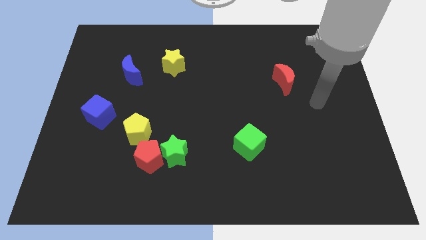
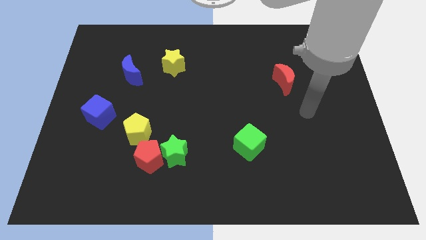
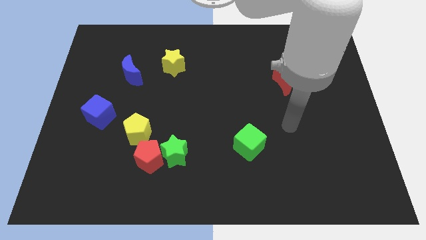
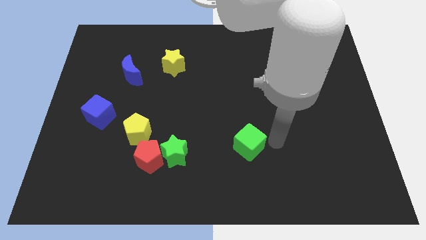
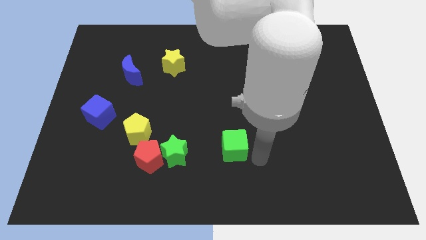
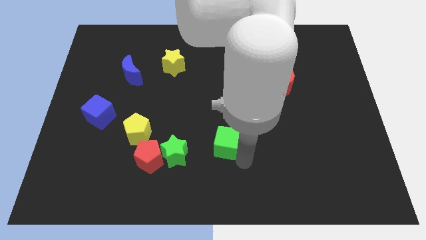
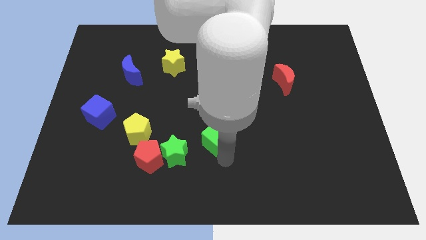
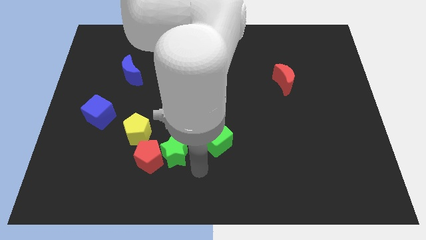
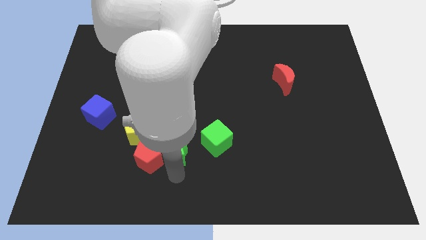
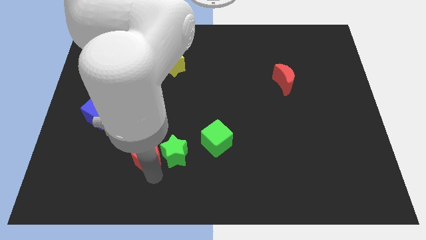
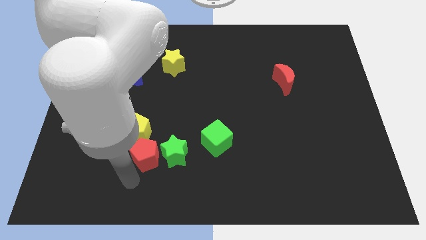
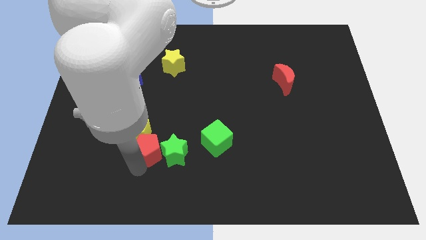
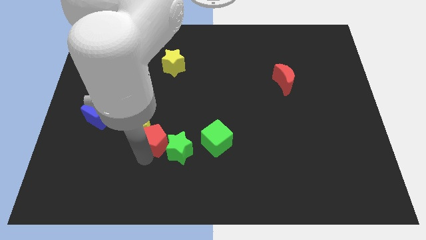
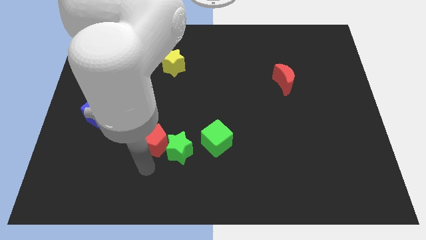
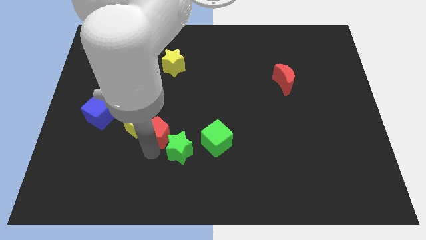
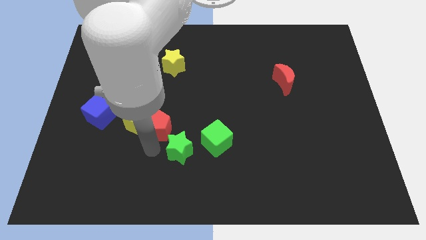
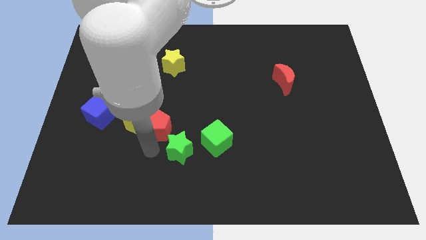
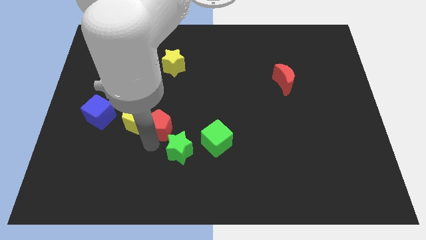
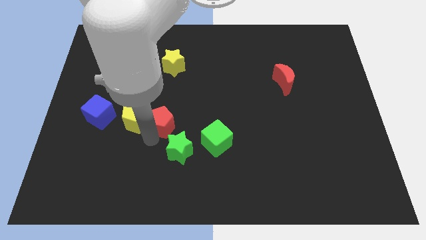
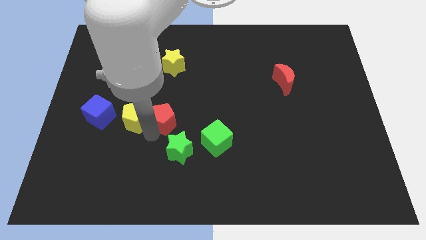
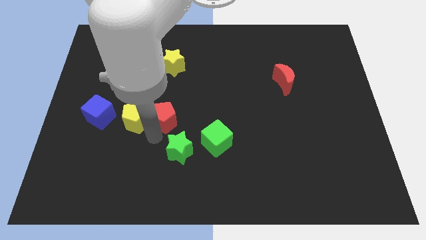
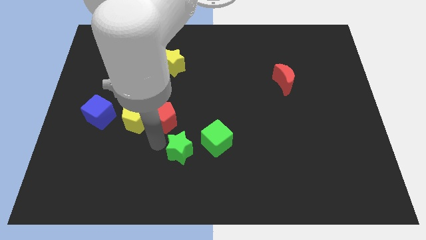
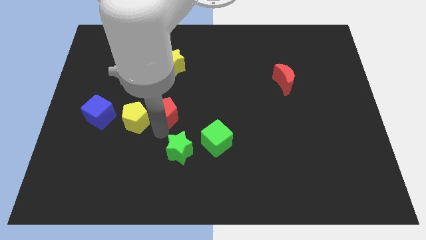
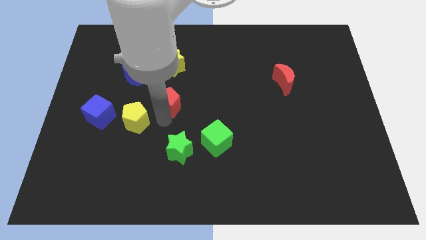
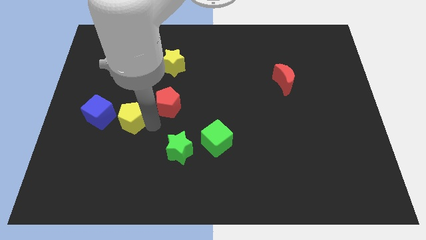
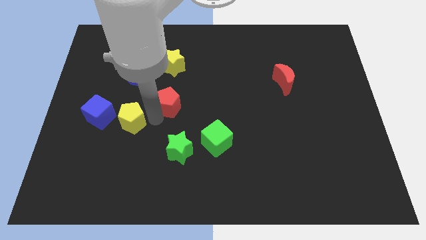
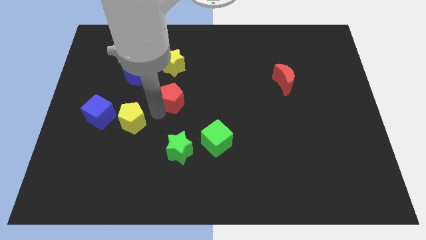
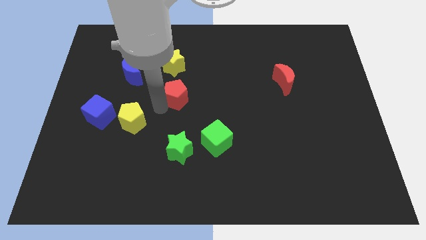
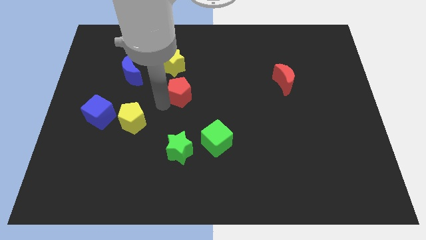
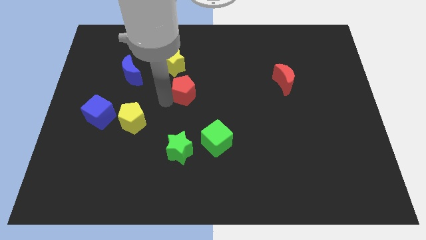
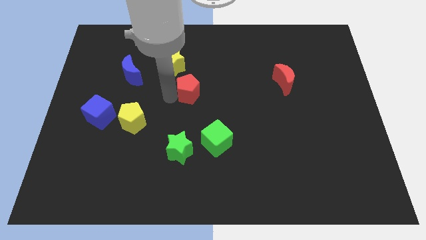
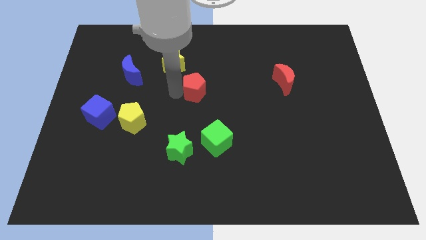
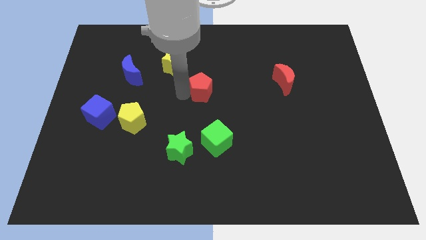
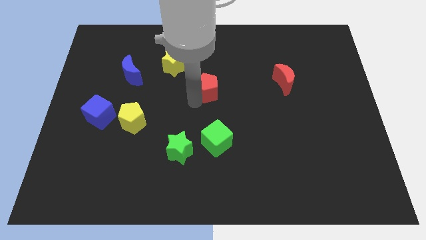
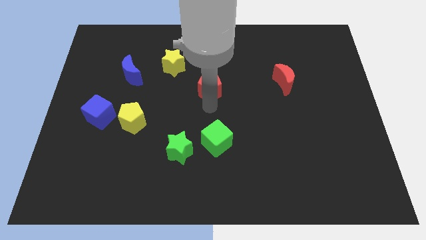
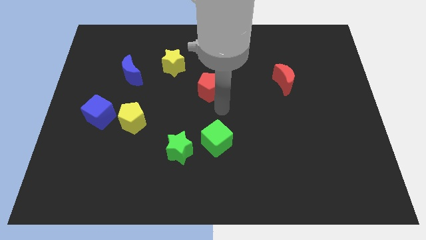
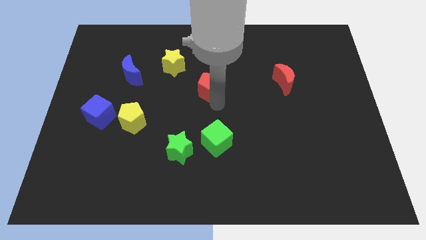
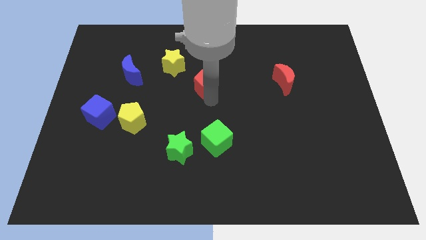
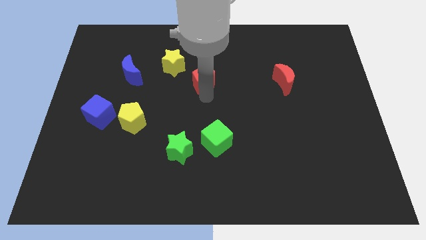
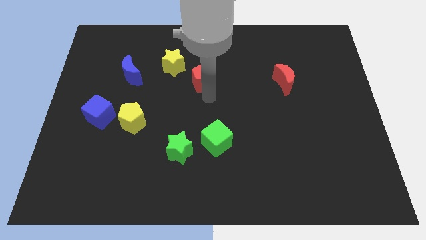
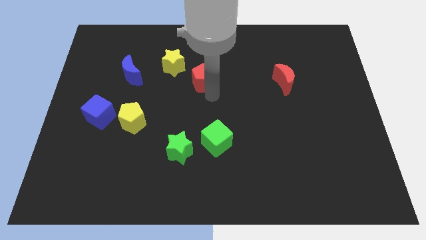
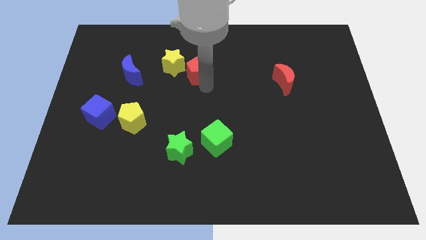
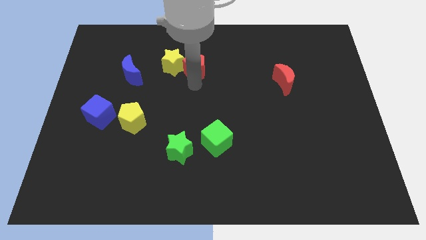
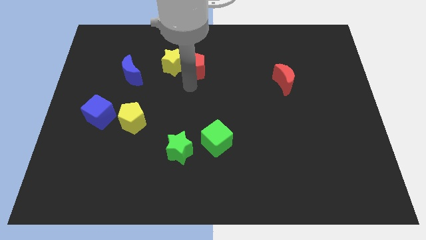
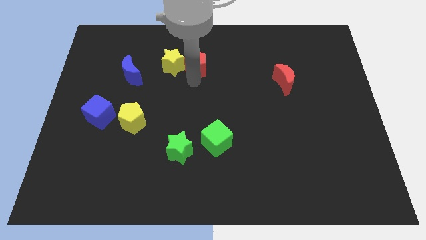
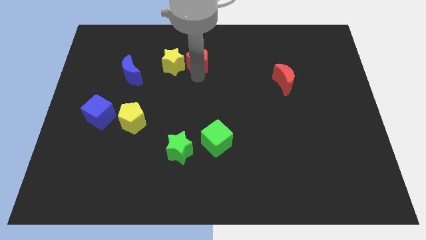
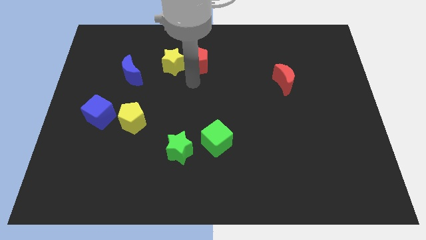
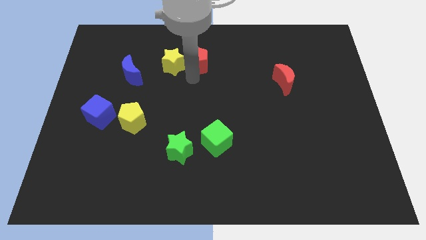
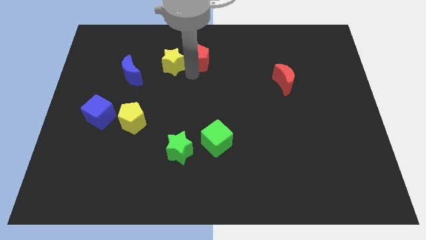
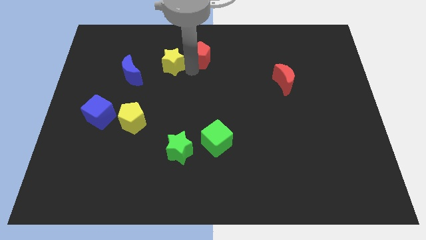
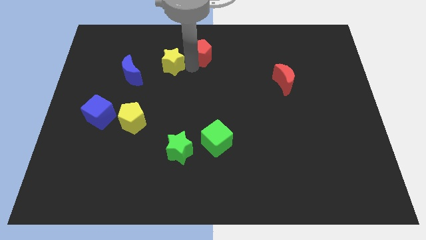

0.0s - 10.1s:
push the red pentagon to the top

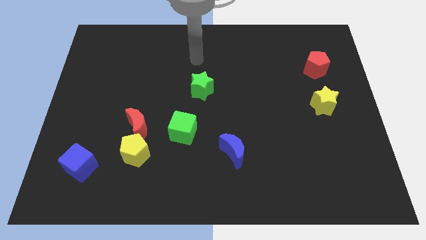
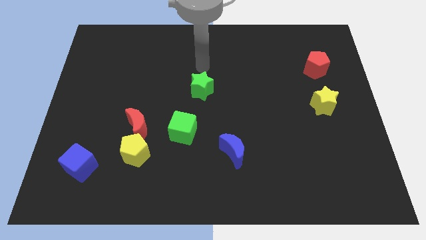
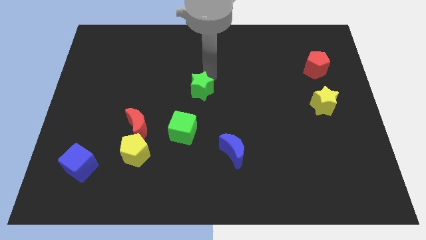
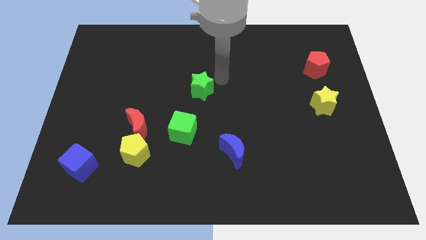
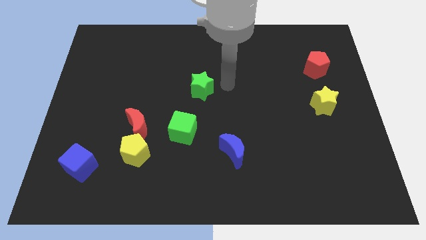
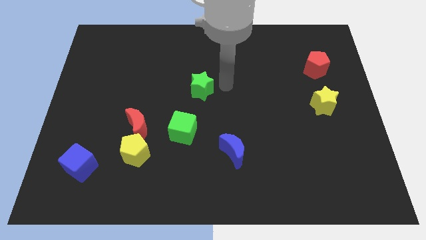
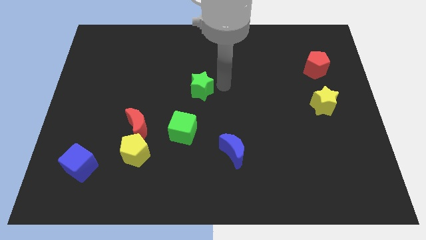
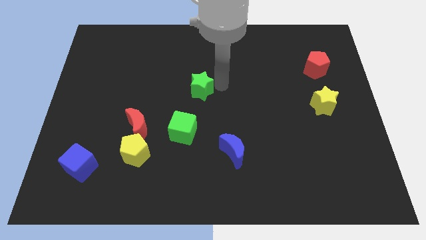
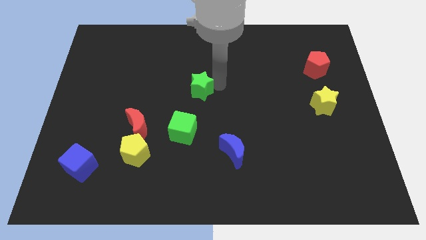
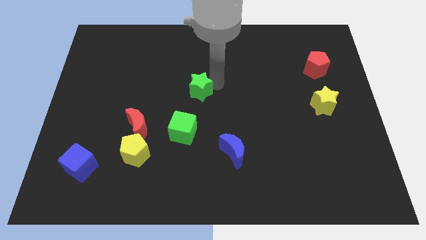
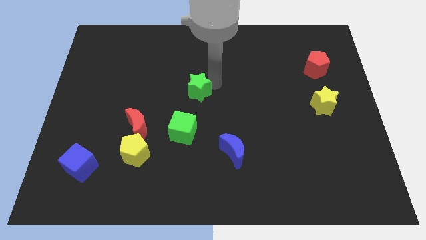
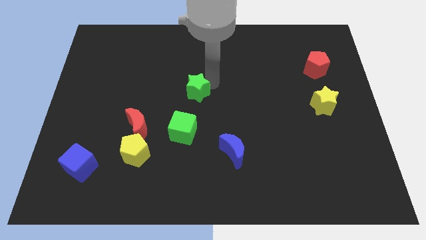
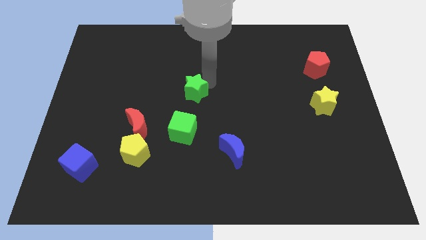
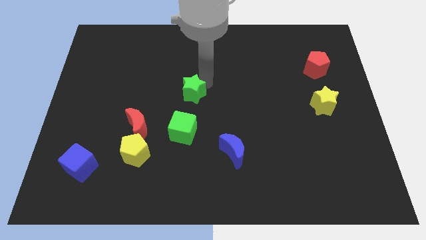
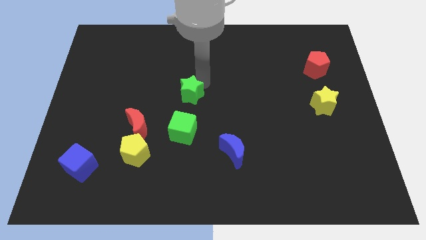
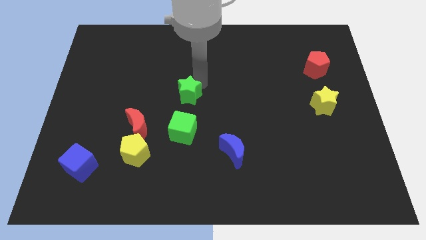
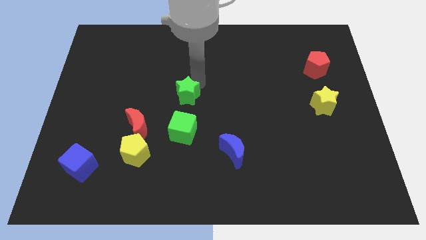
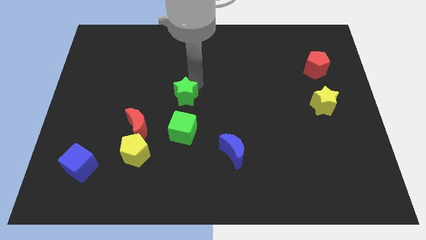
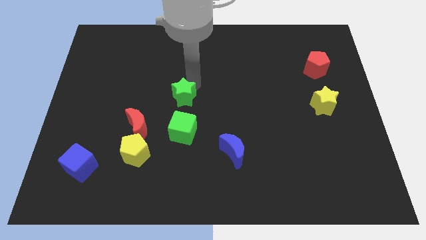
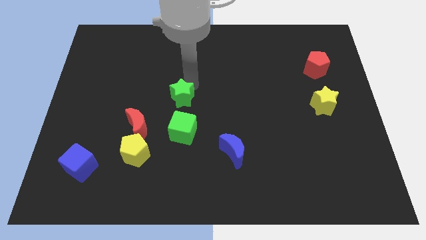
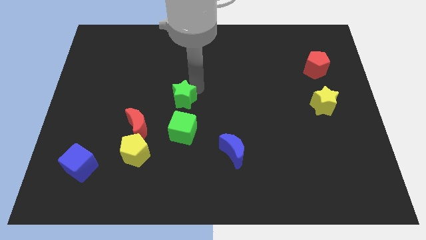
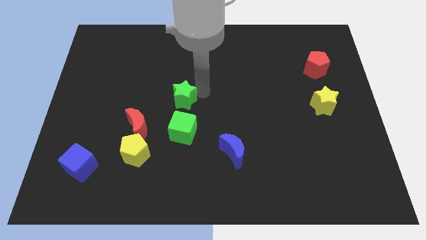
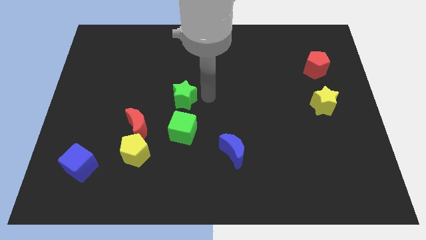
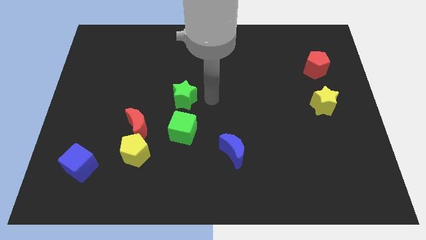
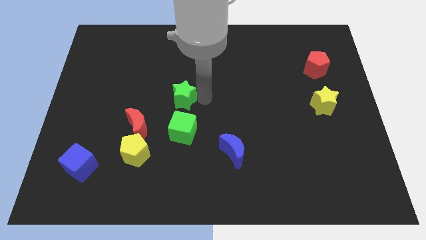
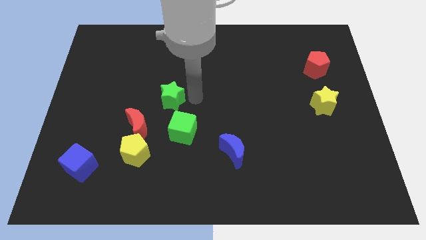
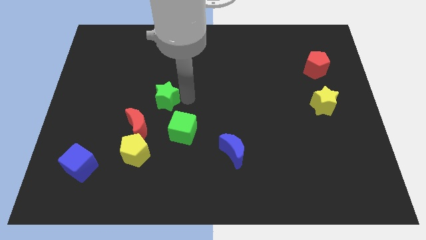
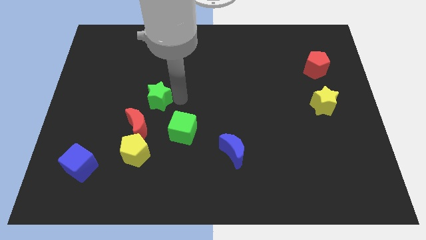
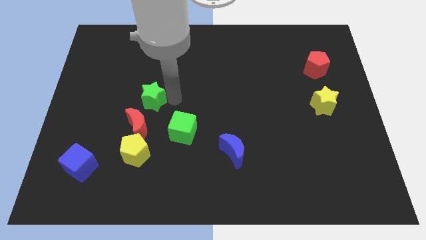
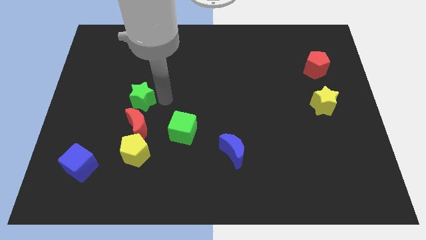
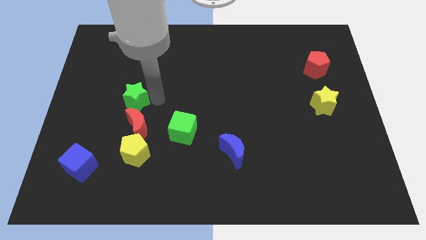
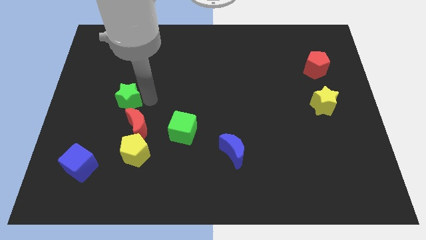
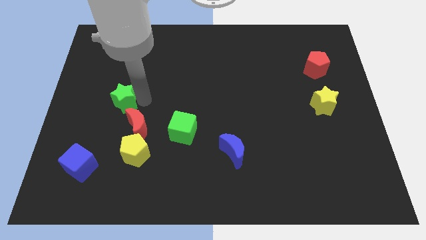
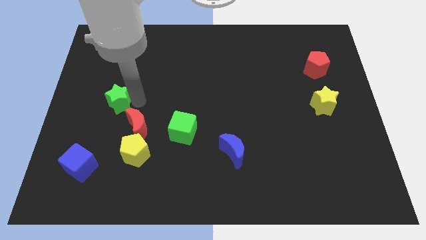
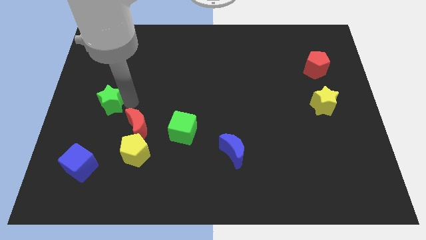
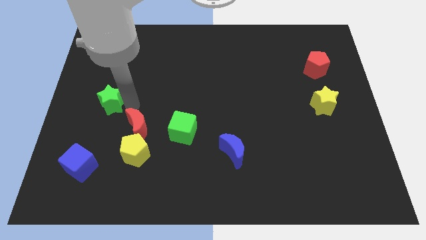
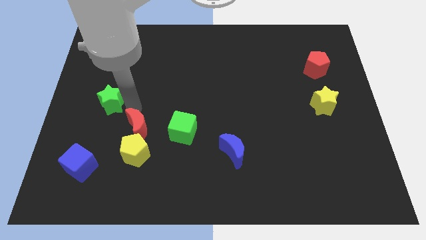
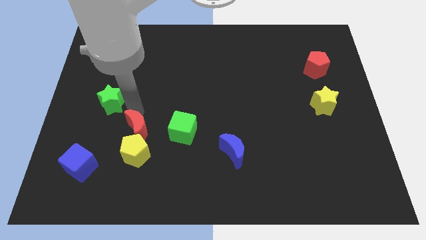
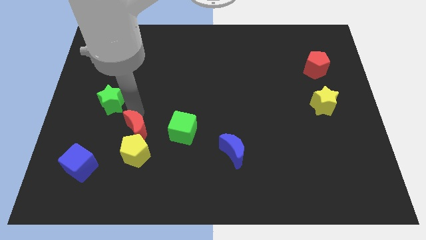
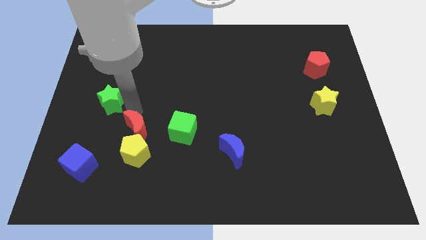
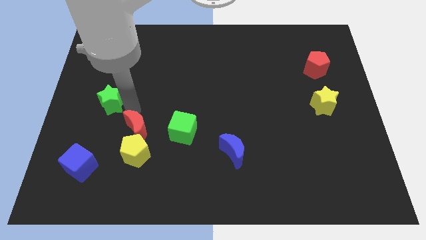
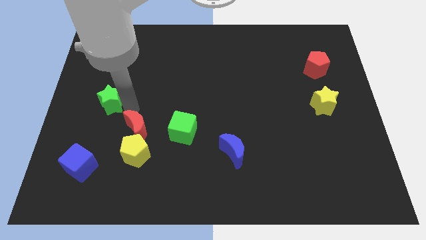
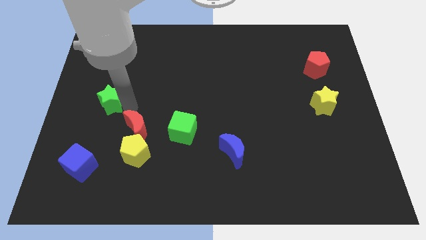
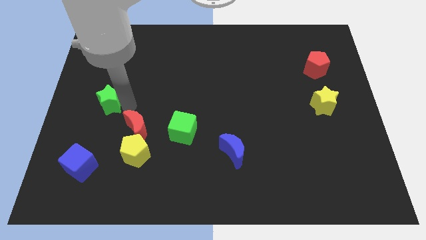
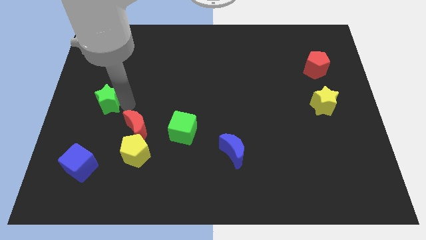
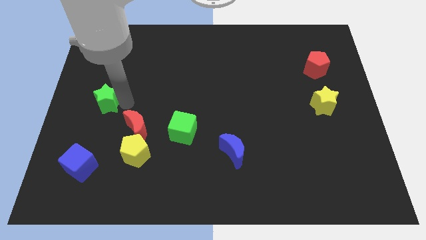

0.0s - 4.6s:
push the green star to the left side of the board
